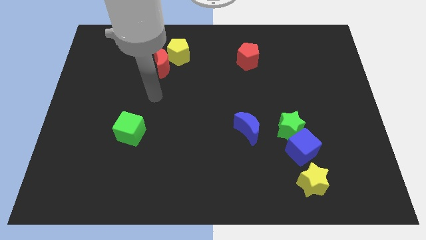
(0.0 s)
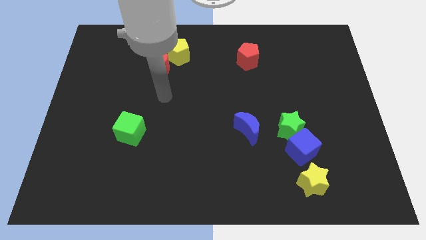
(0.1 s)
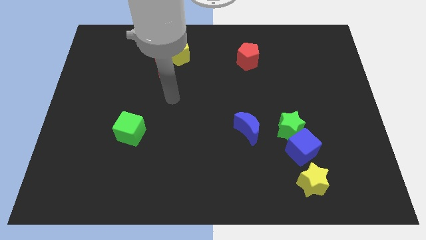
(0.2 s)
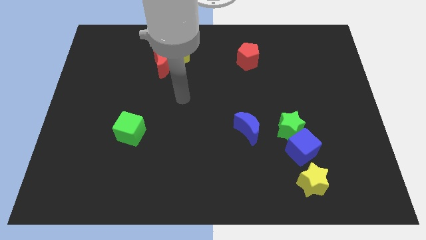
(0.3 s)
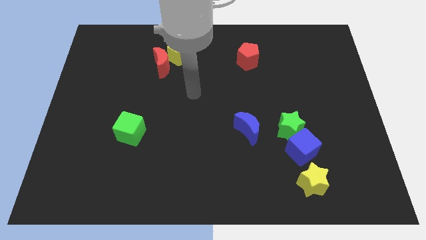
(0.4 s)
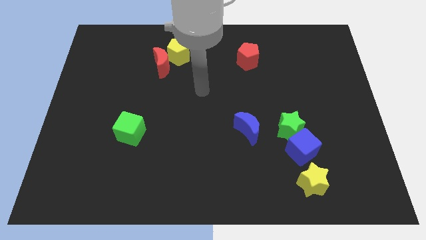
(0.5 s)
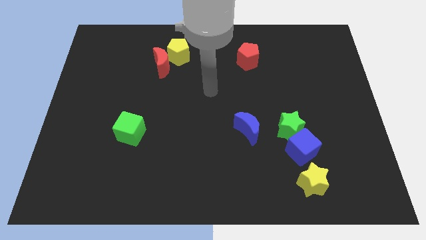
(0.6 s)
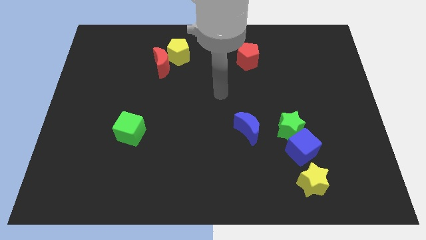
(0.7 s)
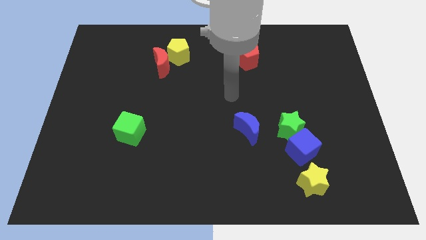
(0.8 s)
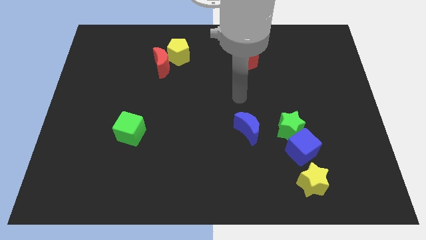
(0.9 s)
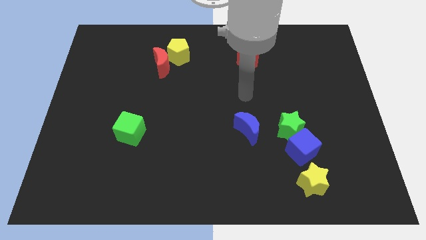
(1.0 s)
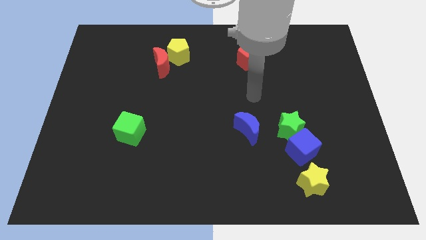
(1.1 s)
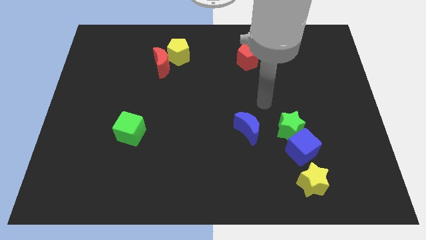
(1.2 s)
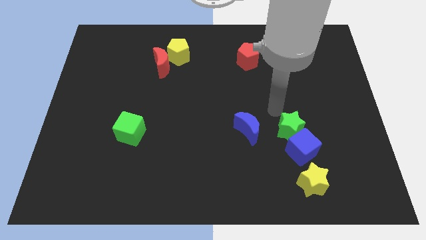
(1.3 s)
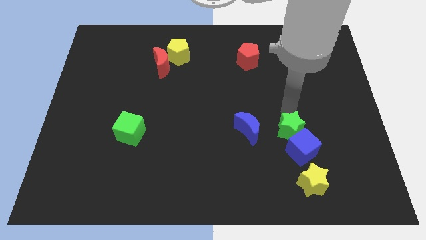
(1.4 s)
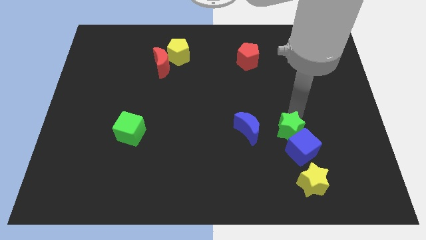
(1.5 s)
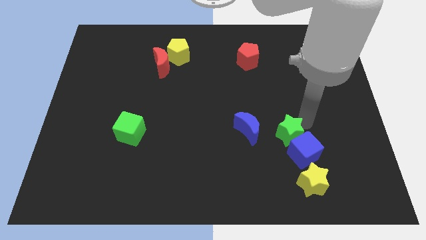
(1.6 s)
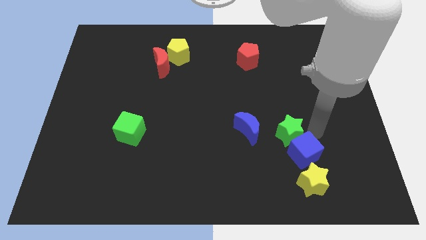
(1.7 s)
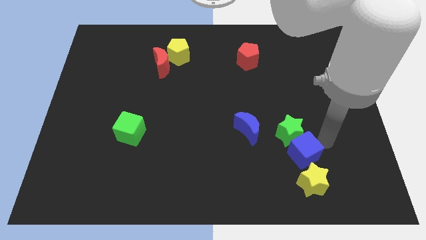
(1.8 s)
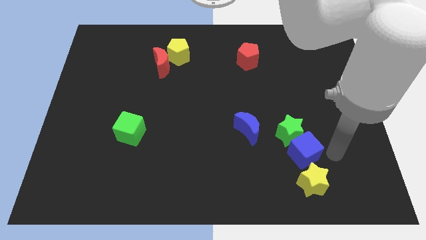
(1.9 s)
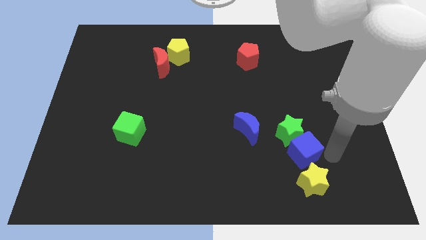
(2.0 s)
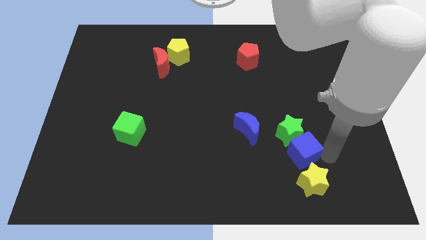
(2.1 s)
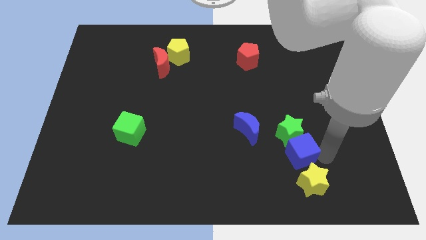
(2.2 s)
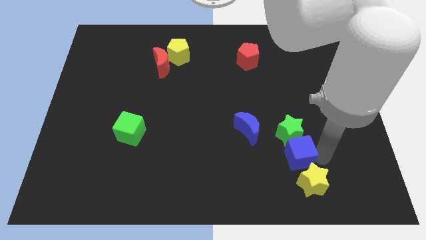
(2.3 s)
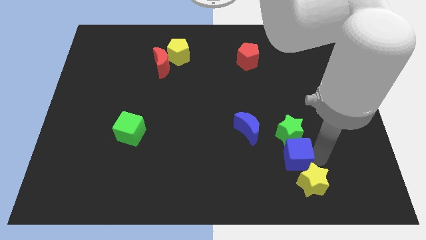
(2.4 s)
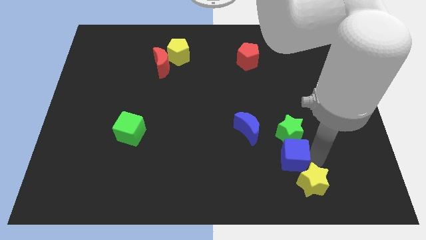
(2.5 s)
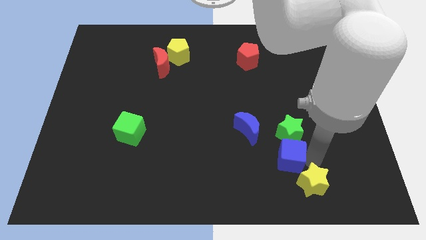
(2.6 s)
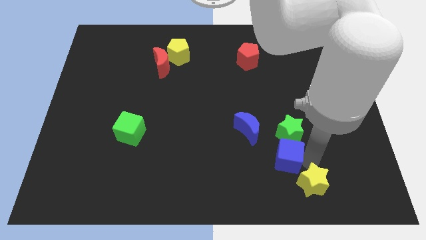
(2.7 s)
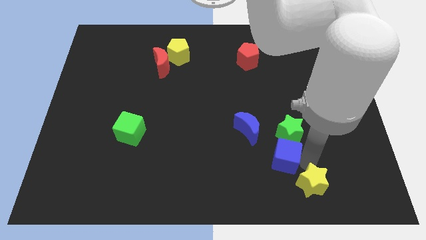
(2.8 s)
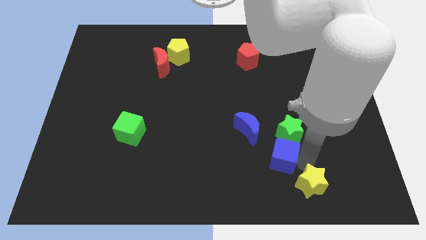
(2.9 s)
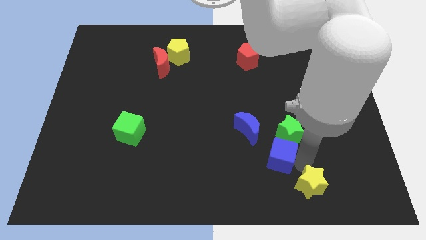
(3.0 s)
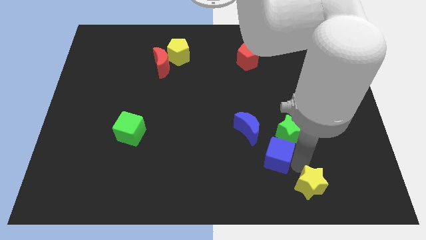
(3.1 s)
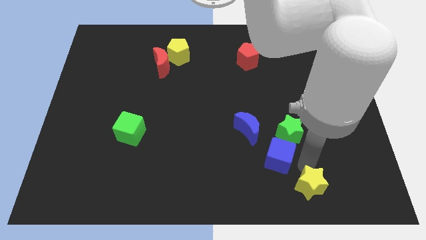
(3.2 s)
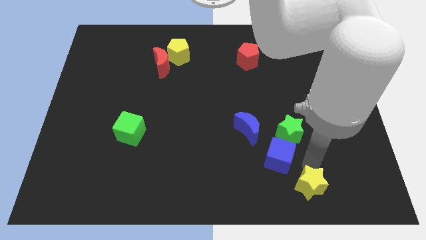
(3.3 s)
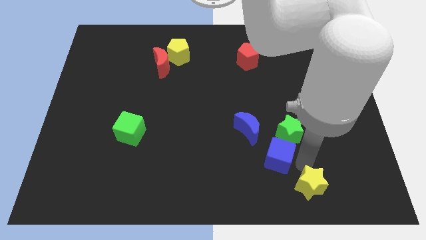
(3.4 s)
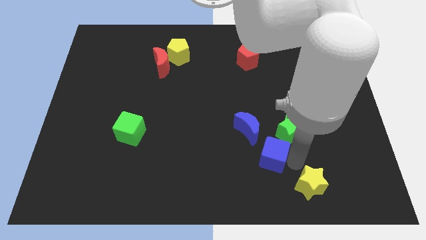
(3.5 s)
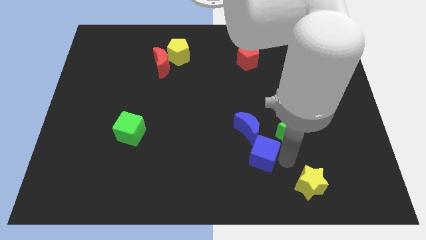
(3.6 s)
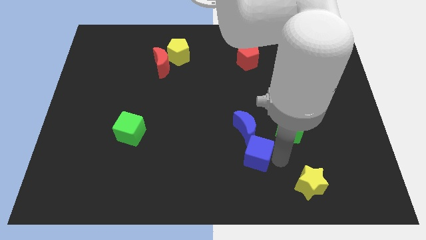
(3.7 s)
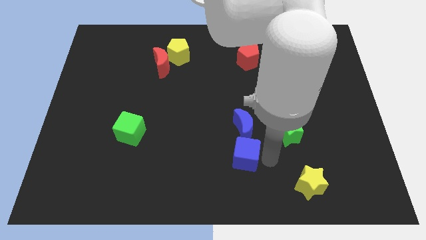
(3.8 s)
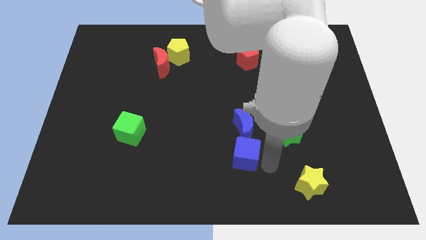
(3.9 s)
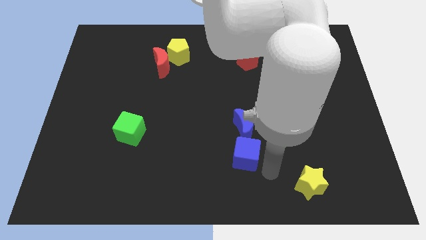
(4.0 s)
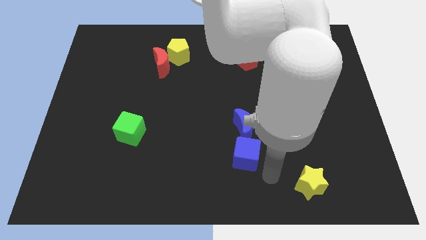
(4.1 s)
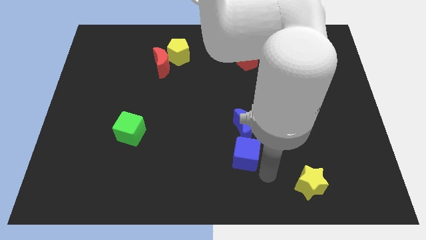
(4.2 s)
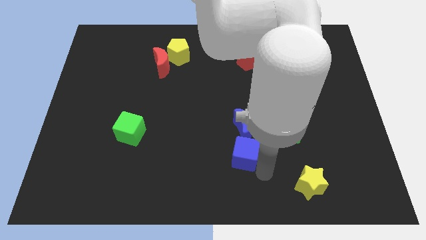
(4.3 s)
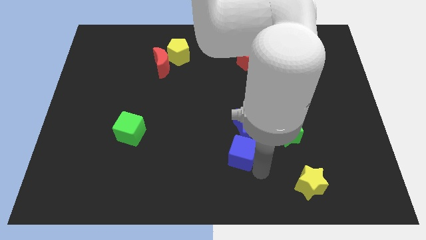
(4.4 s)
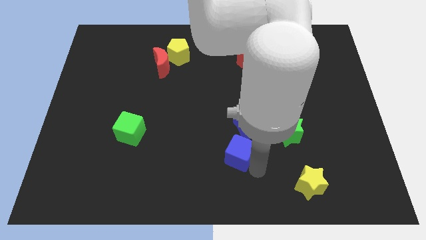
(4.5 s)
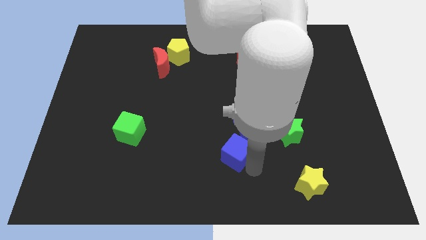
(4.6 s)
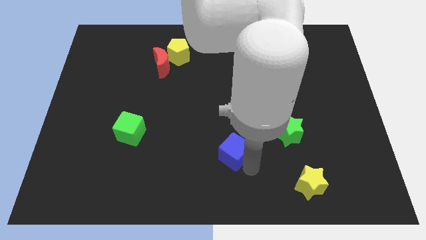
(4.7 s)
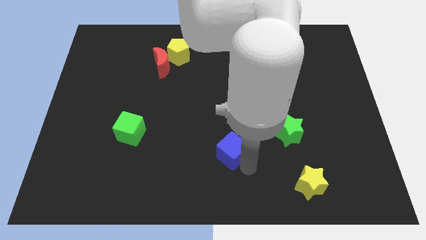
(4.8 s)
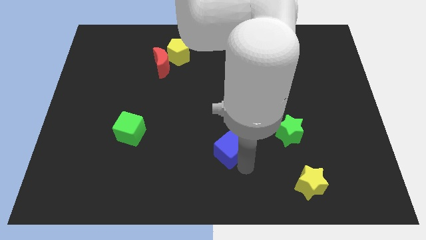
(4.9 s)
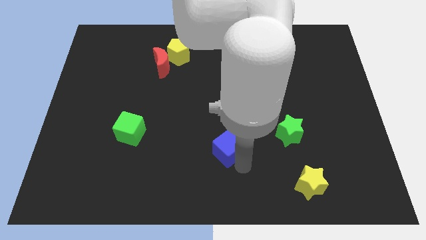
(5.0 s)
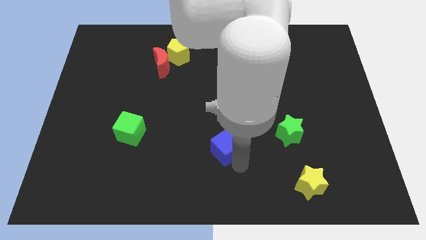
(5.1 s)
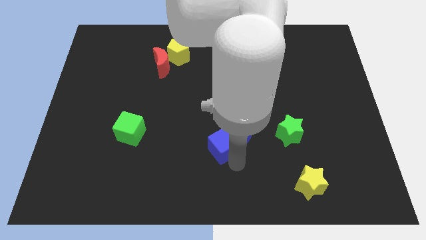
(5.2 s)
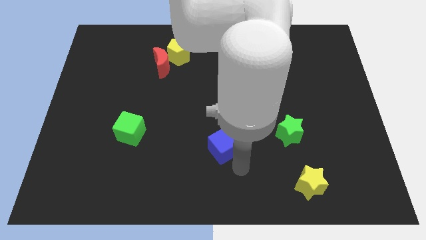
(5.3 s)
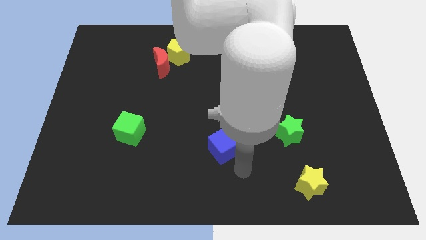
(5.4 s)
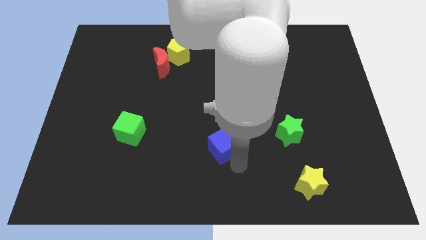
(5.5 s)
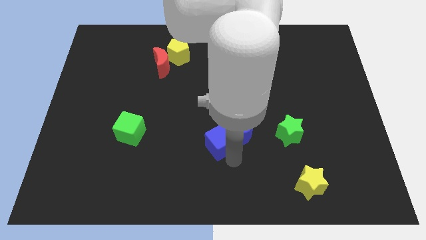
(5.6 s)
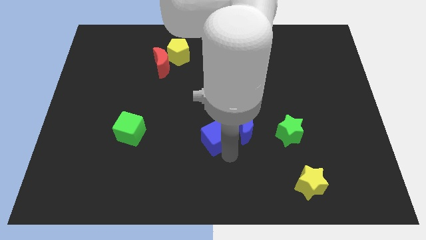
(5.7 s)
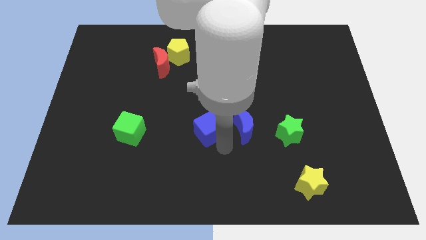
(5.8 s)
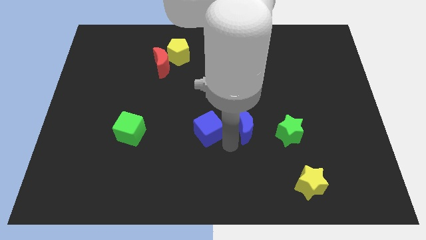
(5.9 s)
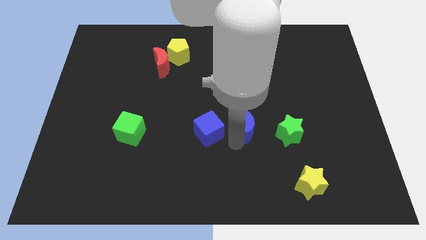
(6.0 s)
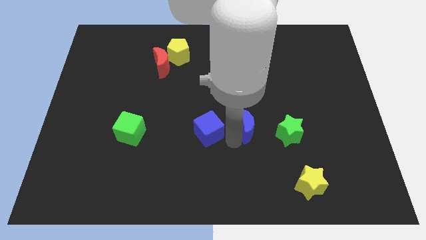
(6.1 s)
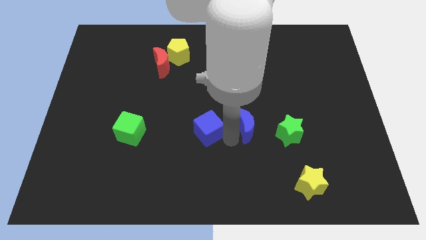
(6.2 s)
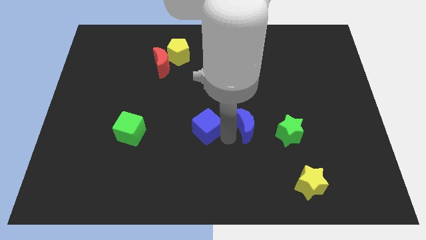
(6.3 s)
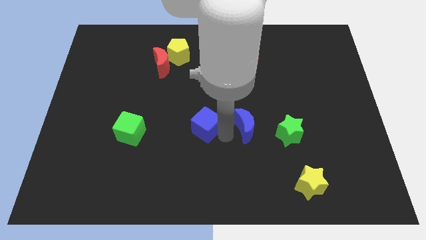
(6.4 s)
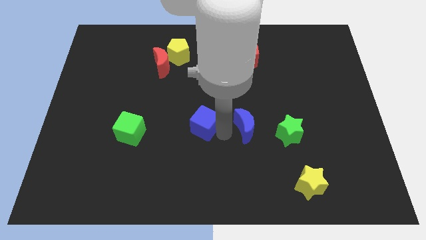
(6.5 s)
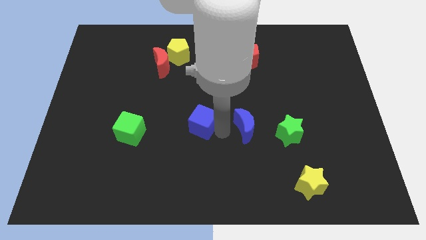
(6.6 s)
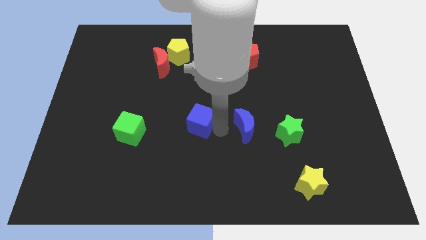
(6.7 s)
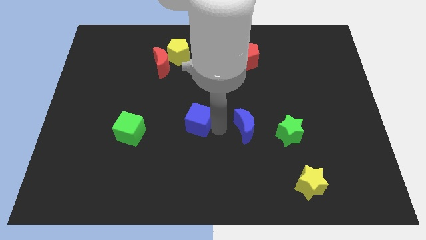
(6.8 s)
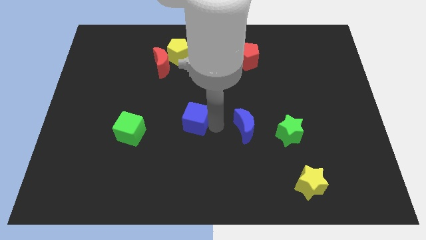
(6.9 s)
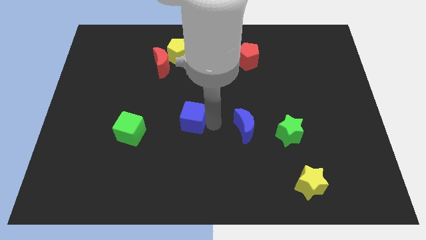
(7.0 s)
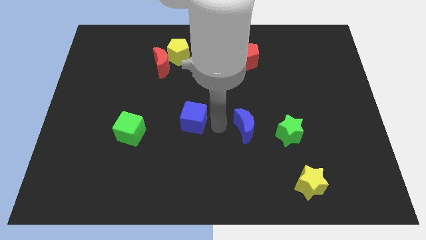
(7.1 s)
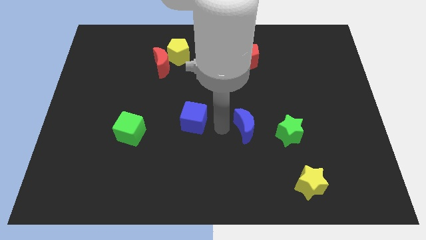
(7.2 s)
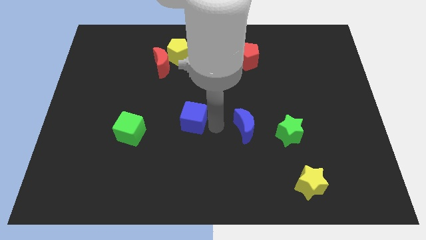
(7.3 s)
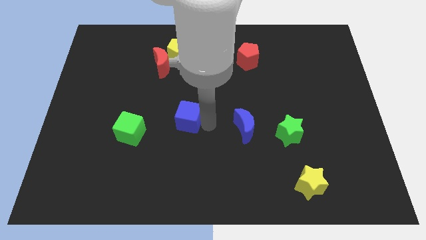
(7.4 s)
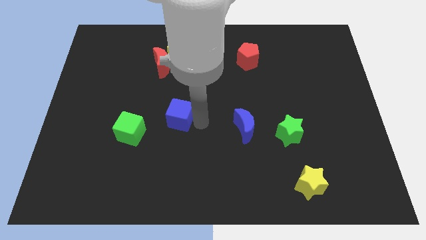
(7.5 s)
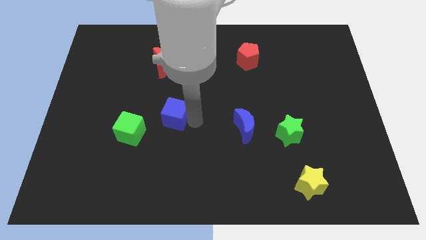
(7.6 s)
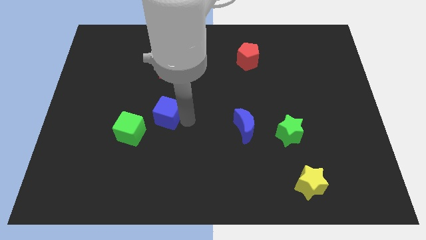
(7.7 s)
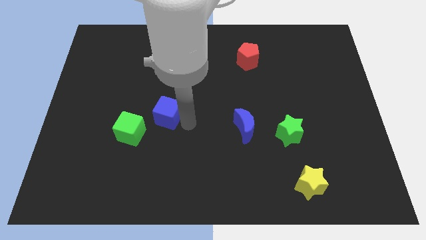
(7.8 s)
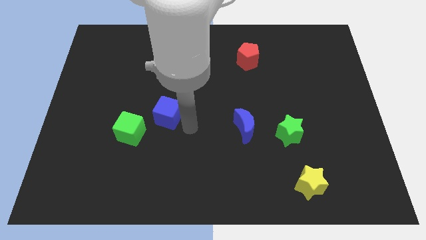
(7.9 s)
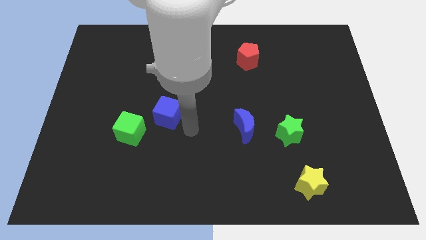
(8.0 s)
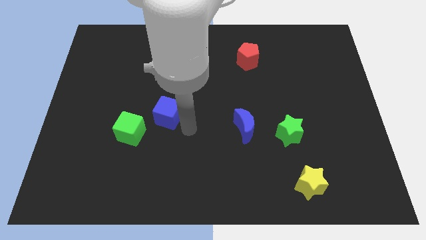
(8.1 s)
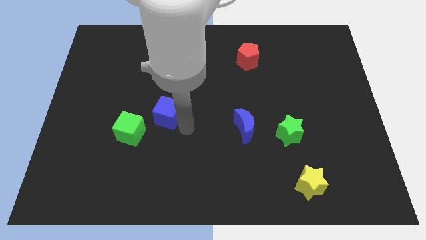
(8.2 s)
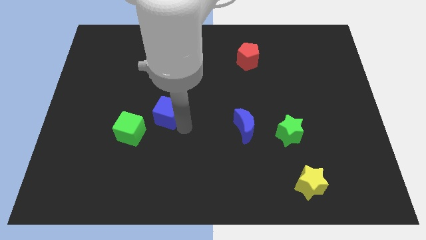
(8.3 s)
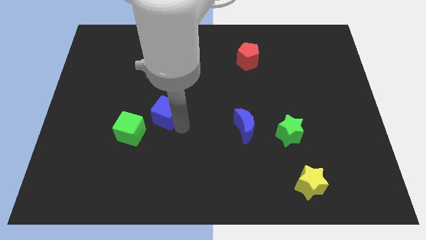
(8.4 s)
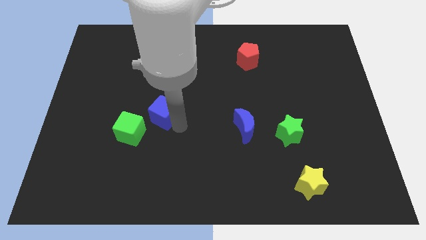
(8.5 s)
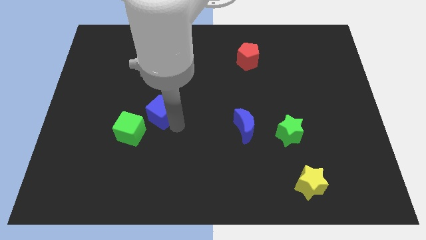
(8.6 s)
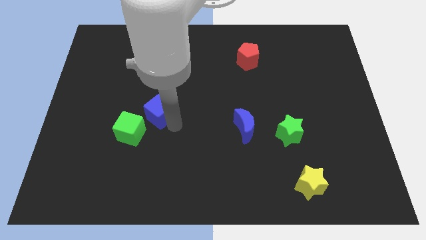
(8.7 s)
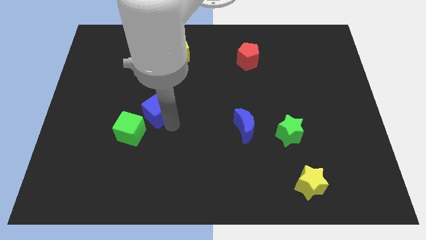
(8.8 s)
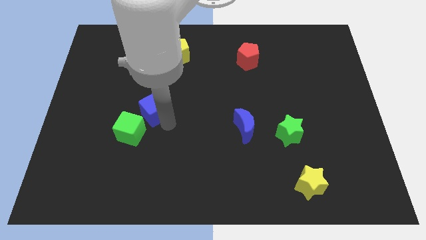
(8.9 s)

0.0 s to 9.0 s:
put the blue cube above the green cube
